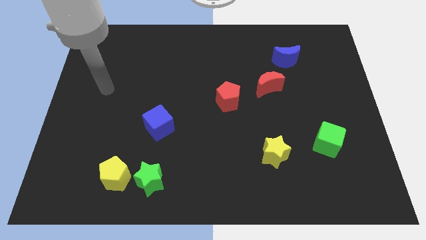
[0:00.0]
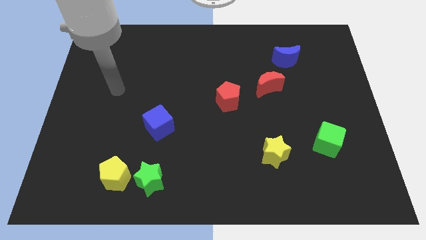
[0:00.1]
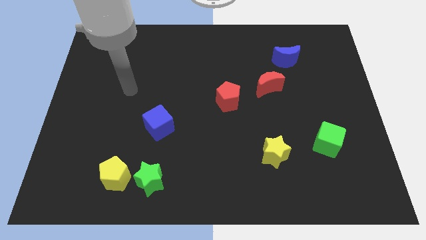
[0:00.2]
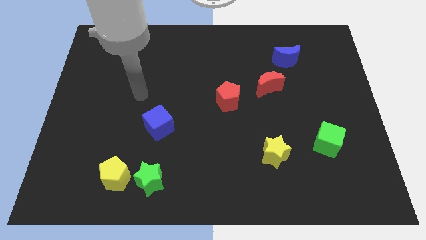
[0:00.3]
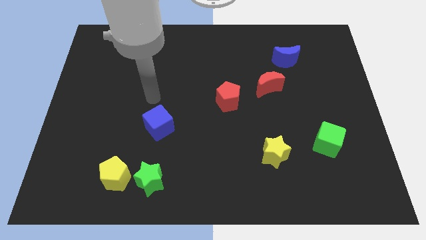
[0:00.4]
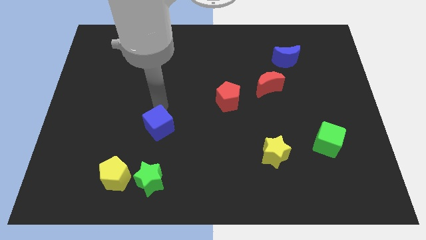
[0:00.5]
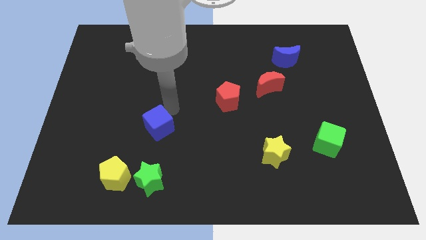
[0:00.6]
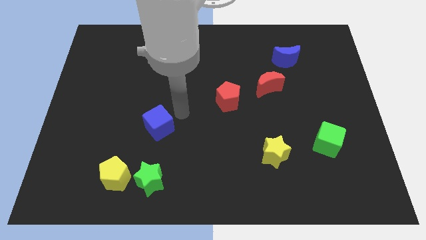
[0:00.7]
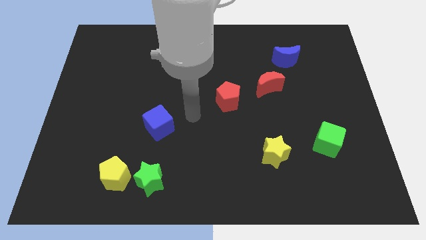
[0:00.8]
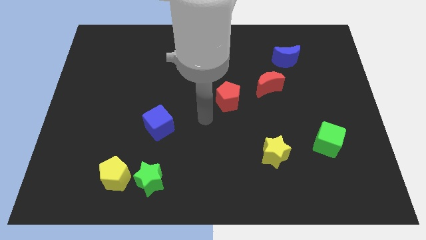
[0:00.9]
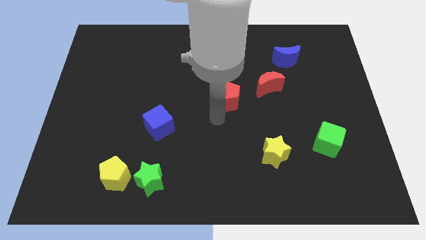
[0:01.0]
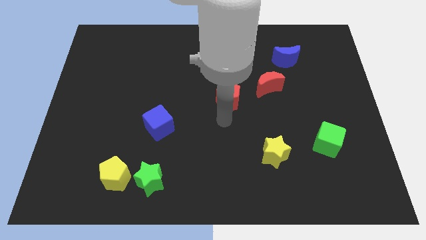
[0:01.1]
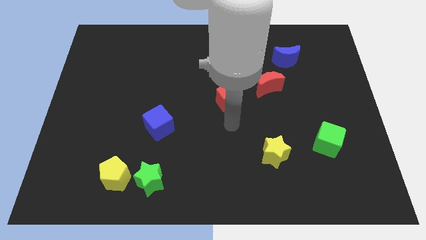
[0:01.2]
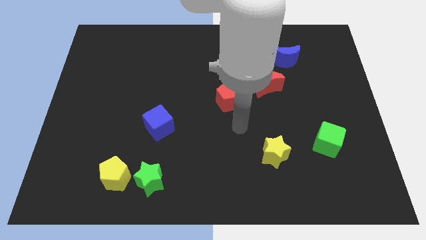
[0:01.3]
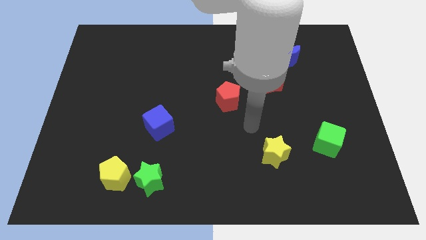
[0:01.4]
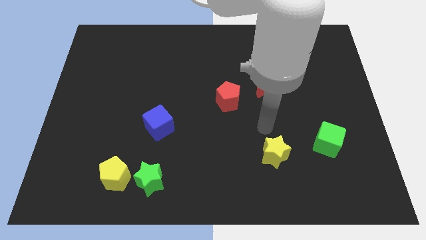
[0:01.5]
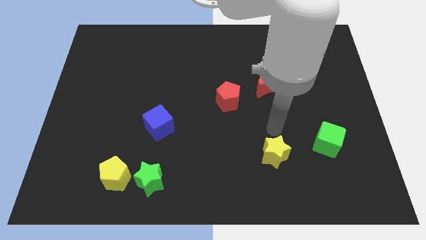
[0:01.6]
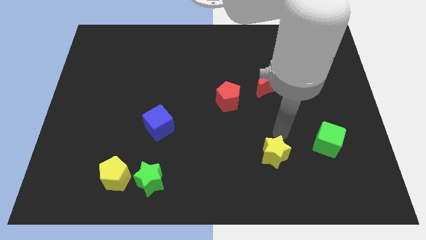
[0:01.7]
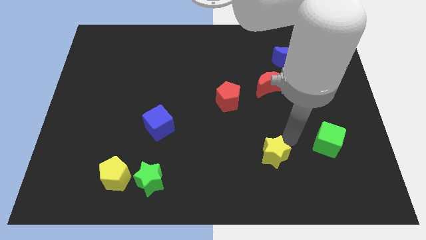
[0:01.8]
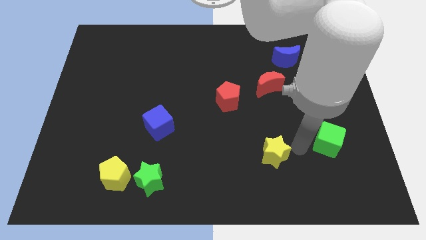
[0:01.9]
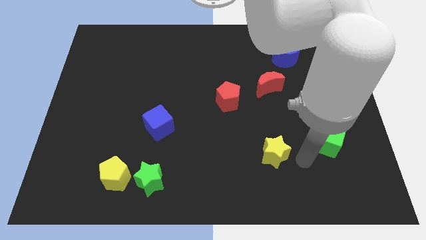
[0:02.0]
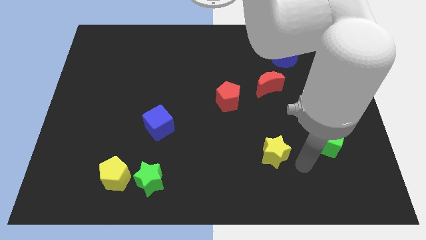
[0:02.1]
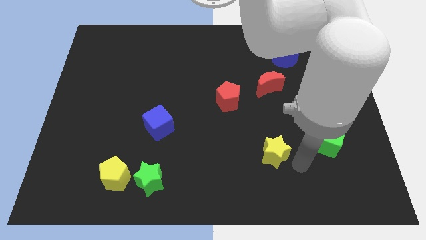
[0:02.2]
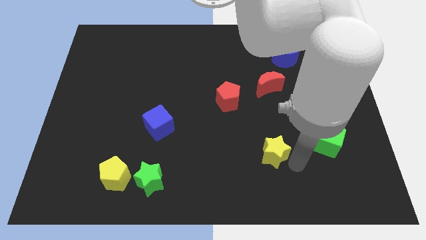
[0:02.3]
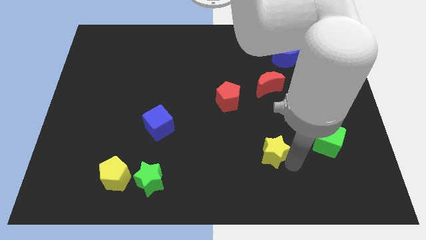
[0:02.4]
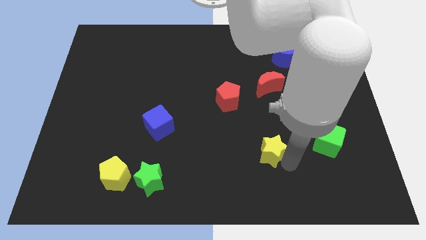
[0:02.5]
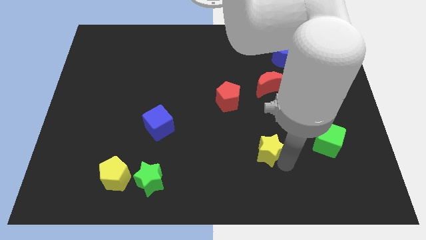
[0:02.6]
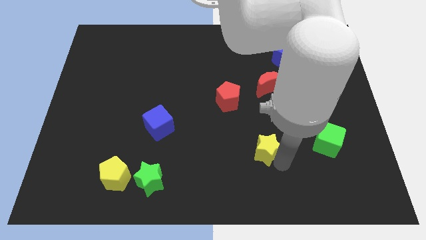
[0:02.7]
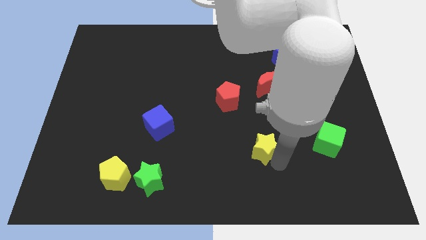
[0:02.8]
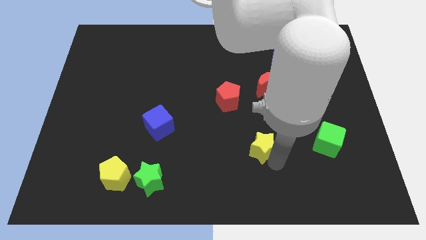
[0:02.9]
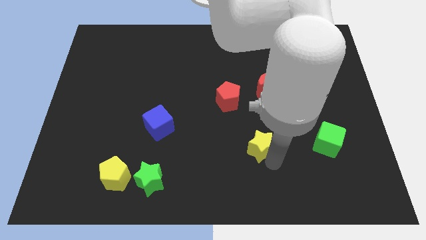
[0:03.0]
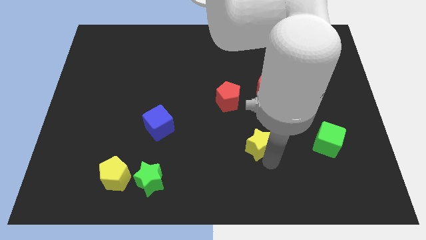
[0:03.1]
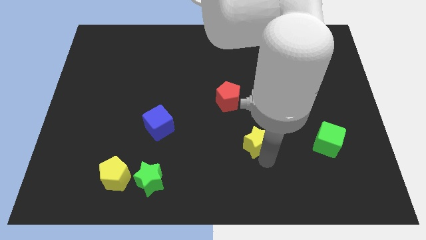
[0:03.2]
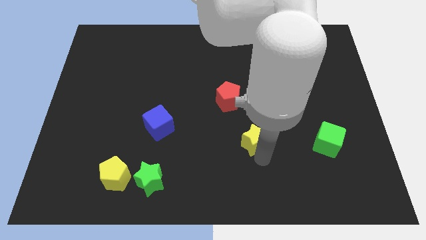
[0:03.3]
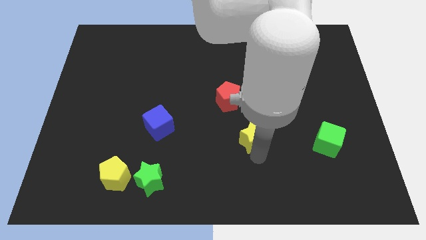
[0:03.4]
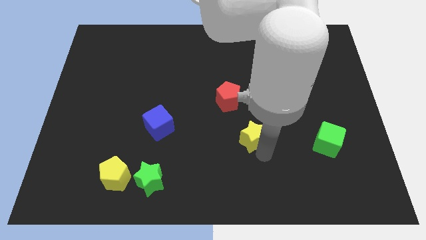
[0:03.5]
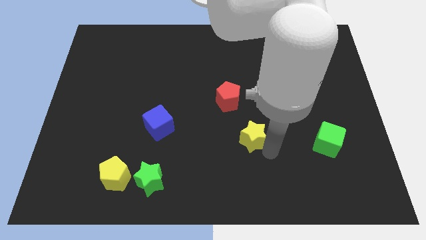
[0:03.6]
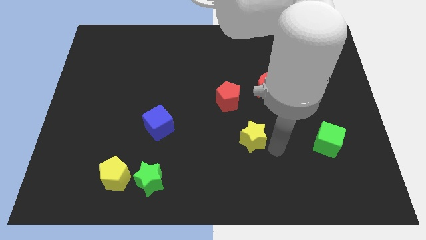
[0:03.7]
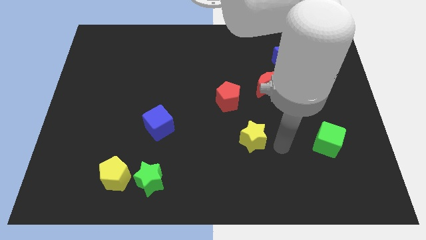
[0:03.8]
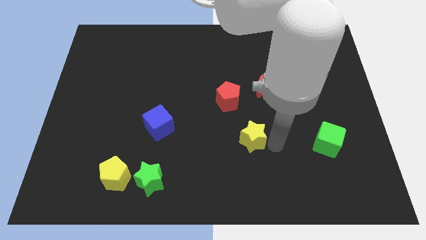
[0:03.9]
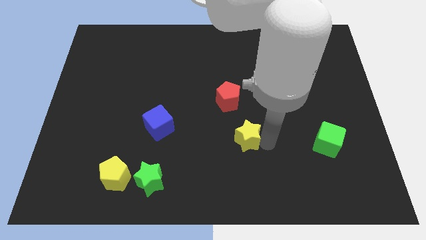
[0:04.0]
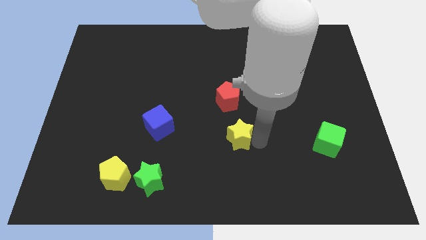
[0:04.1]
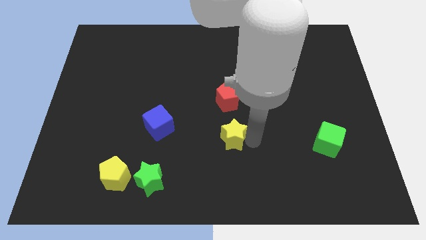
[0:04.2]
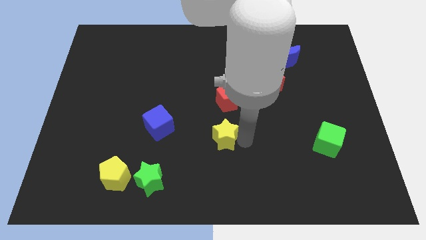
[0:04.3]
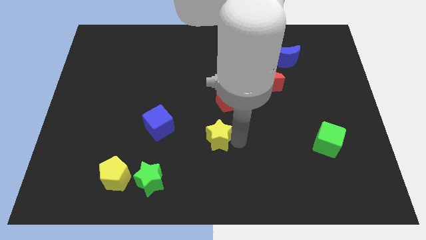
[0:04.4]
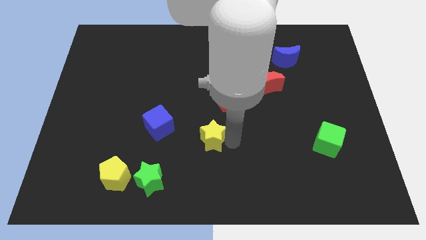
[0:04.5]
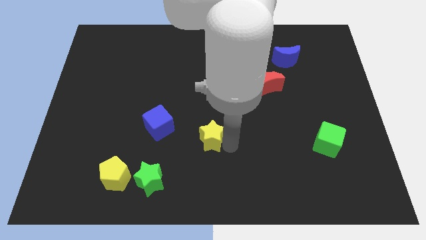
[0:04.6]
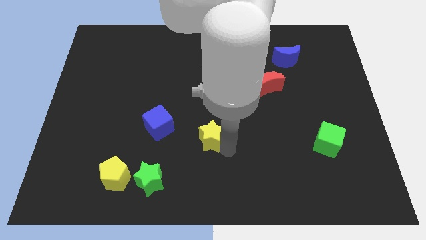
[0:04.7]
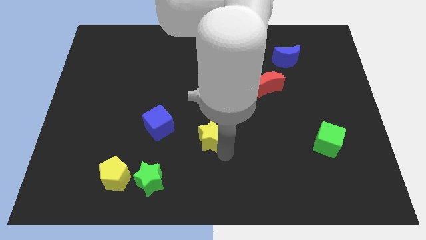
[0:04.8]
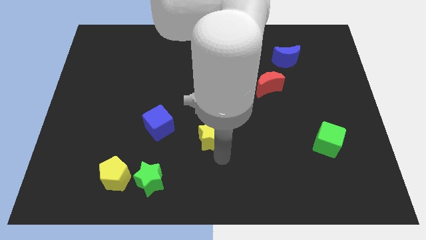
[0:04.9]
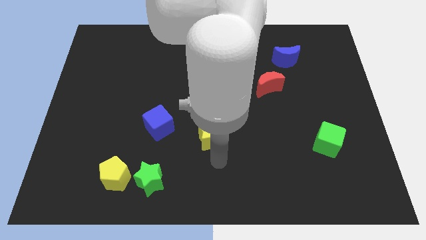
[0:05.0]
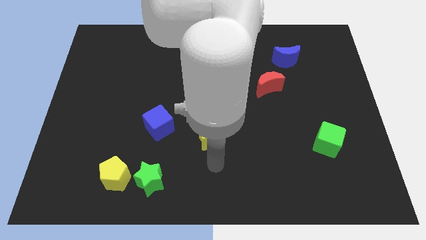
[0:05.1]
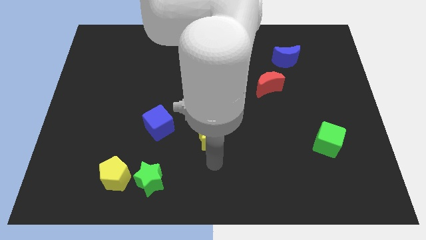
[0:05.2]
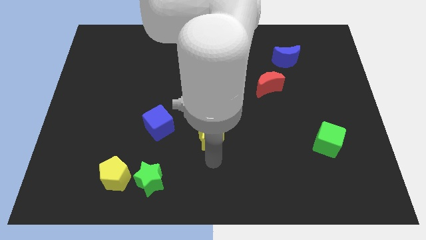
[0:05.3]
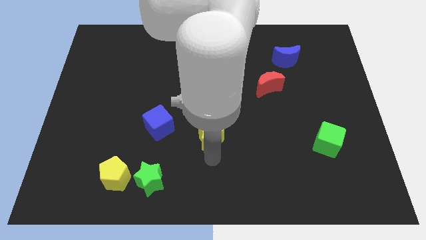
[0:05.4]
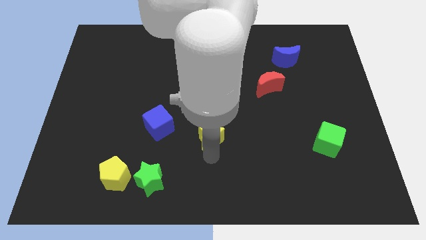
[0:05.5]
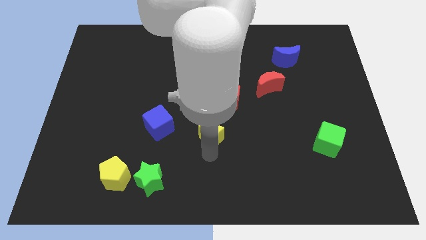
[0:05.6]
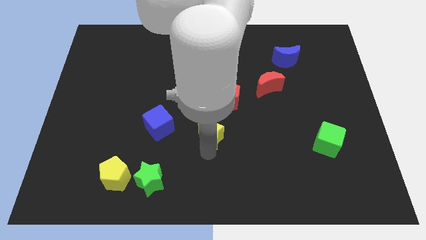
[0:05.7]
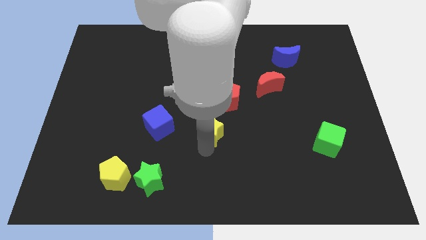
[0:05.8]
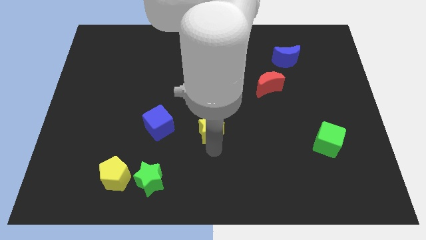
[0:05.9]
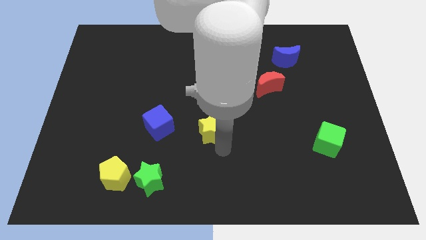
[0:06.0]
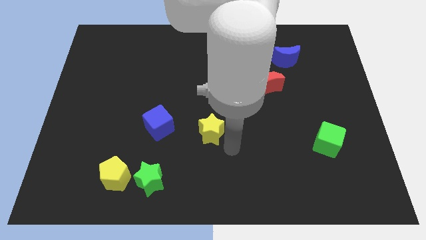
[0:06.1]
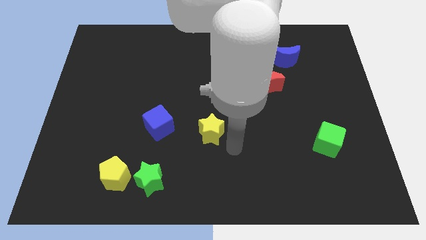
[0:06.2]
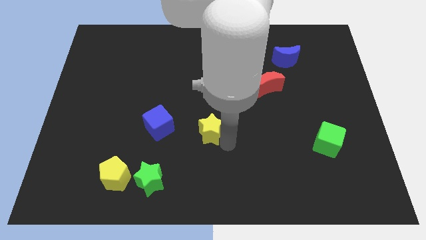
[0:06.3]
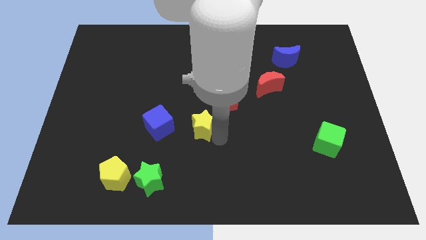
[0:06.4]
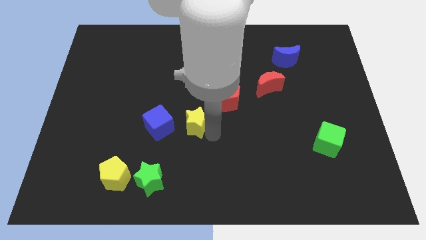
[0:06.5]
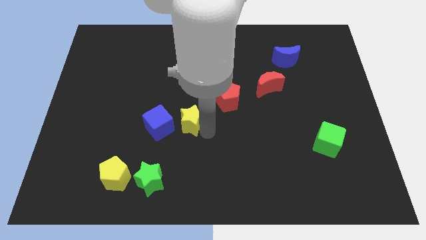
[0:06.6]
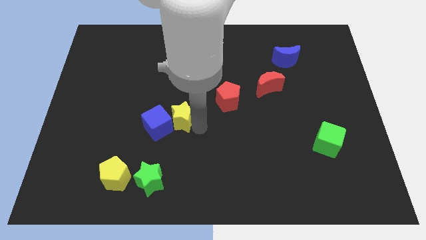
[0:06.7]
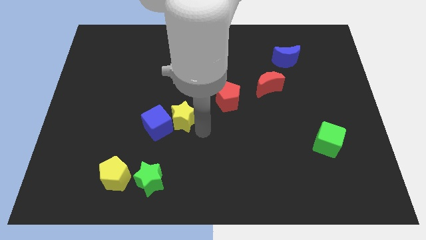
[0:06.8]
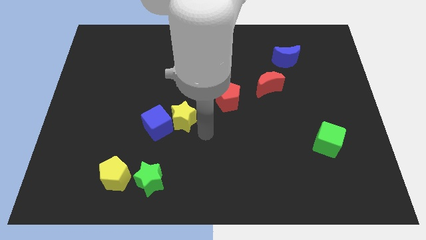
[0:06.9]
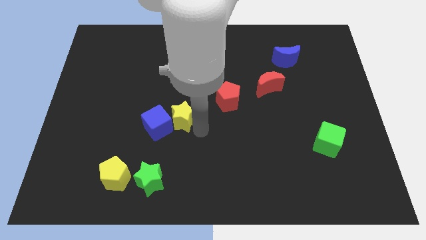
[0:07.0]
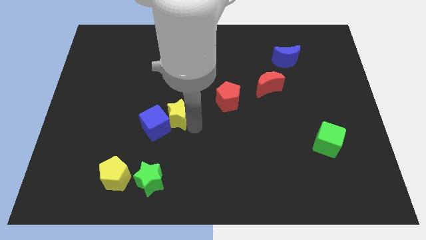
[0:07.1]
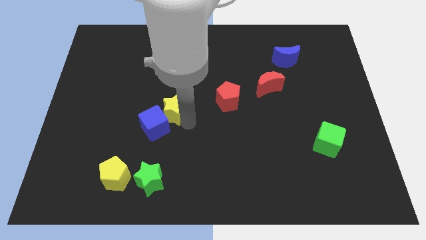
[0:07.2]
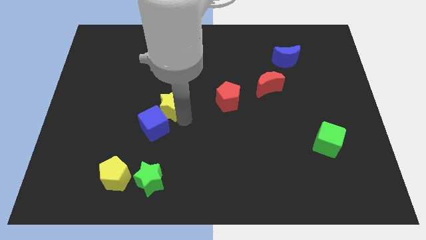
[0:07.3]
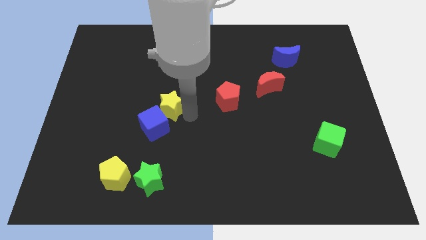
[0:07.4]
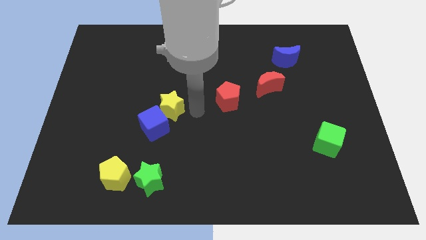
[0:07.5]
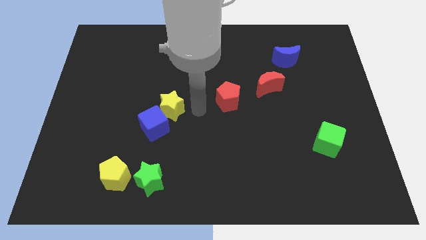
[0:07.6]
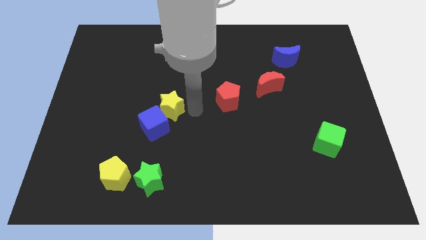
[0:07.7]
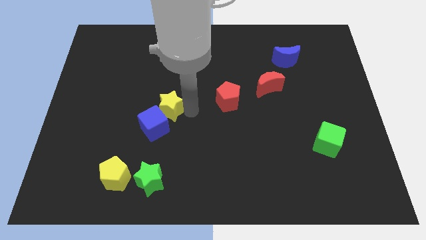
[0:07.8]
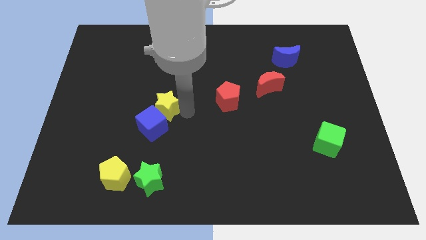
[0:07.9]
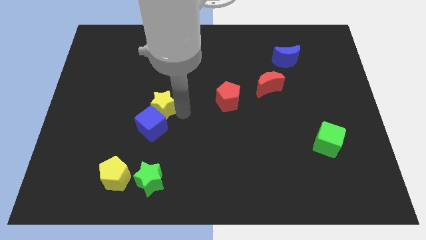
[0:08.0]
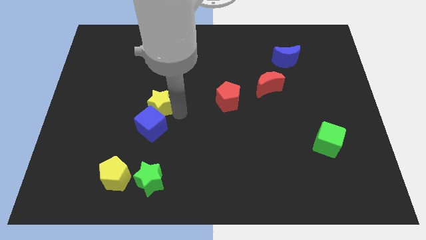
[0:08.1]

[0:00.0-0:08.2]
put the yellow star diagonally up and to the left of the blue cube
